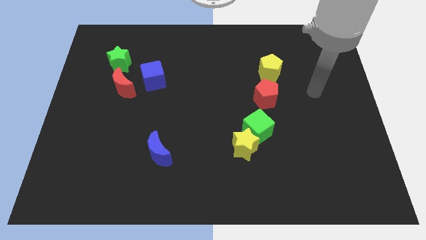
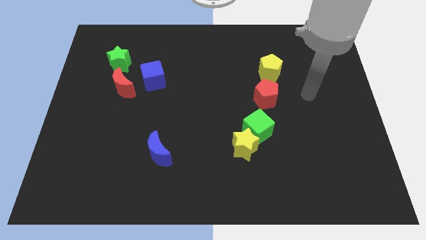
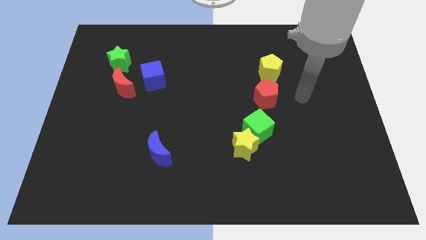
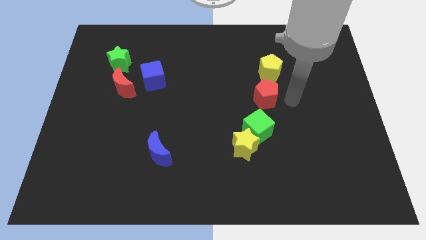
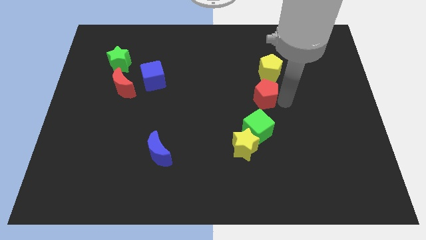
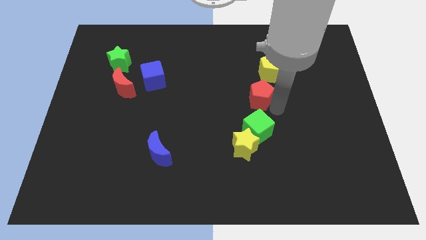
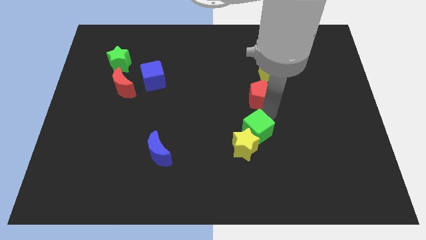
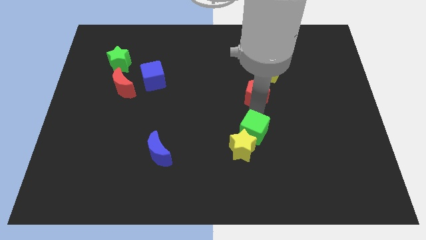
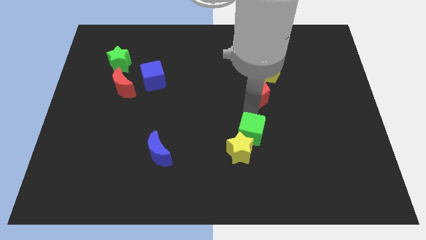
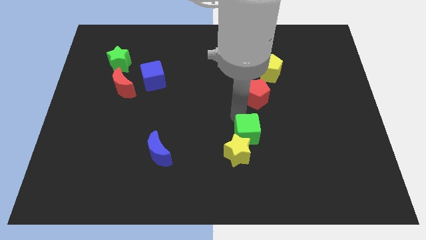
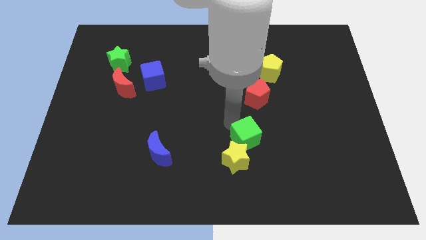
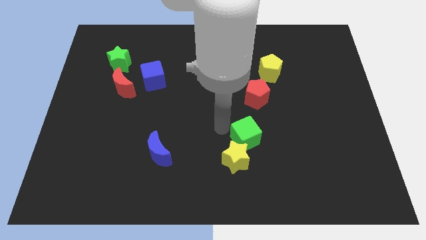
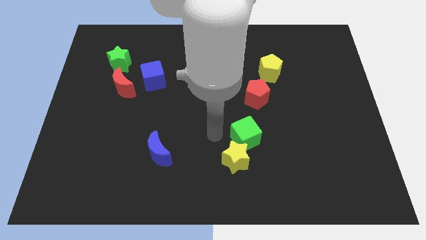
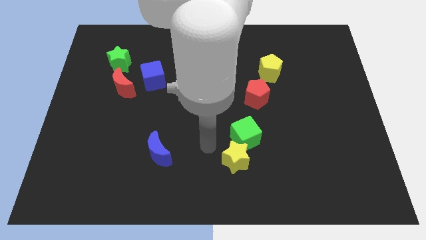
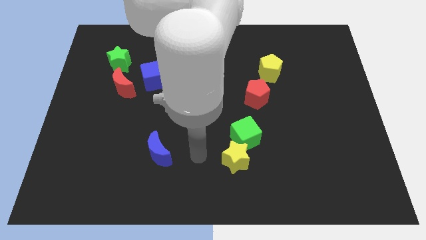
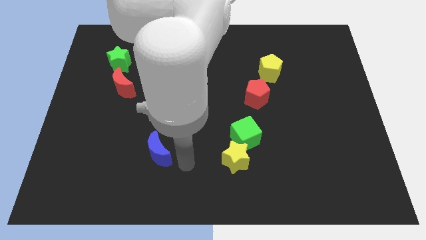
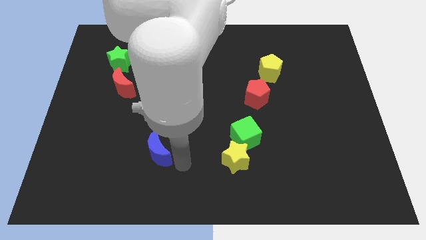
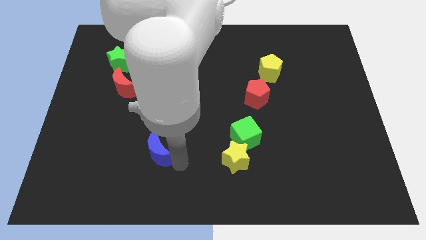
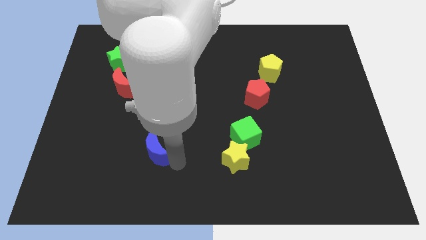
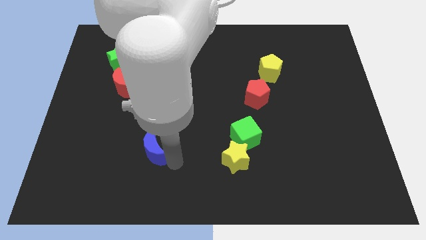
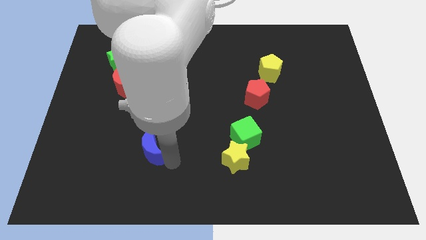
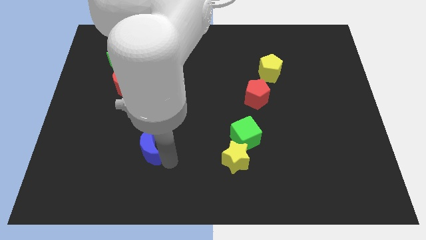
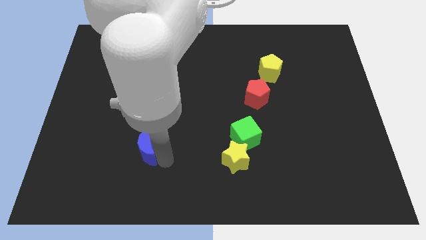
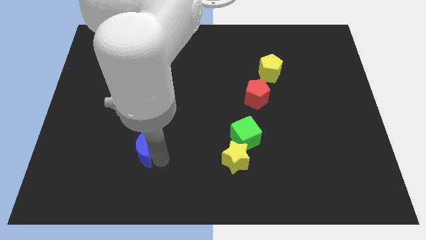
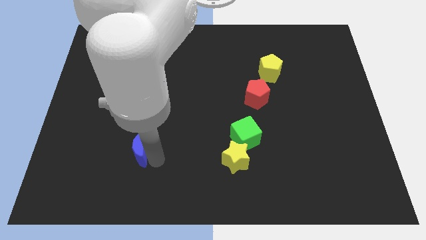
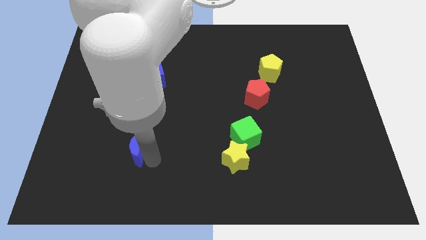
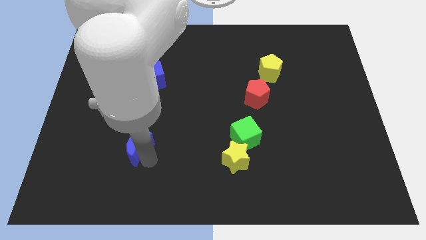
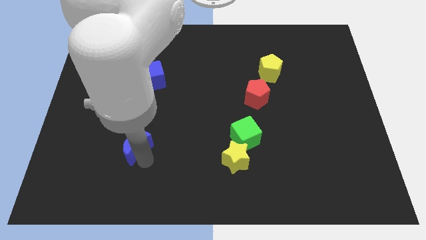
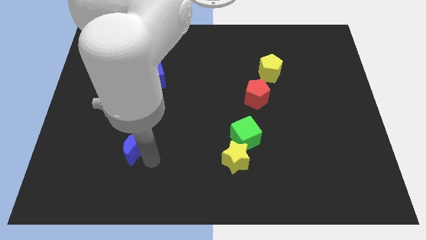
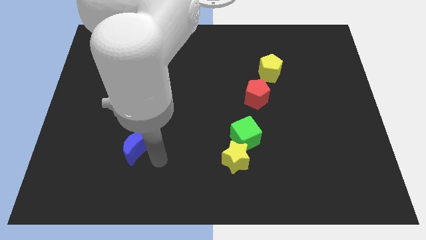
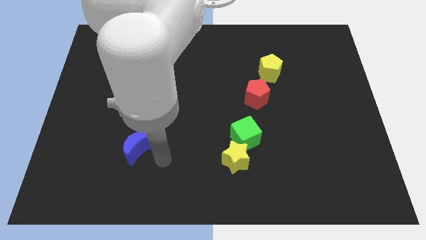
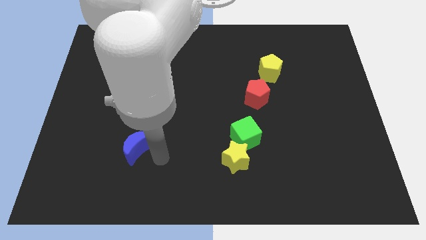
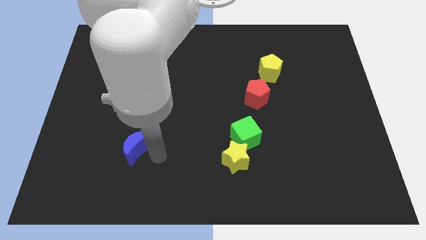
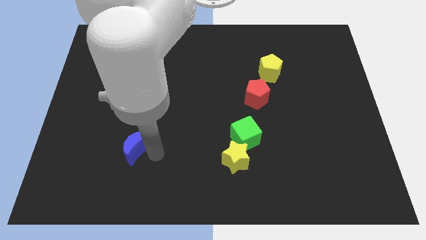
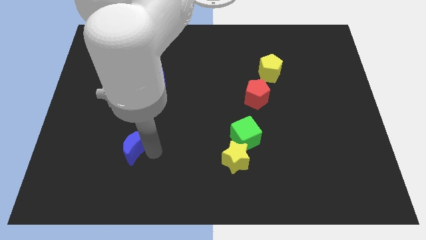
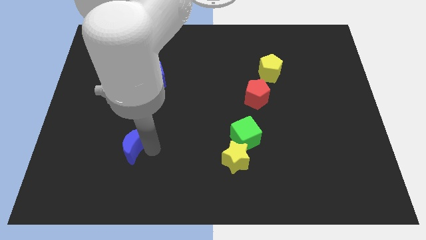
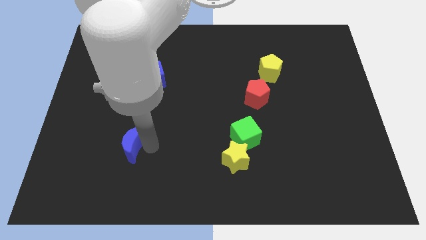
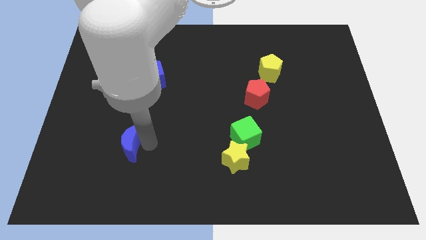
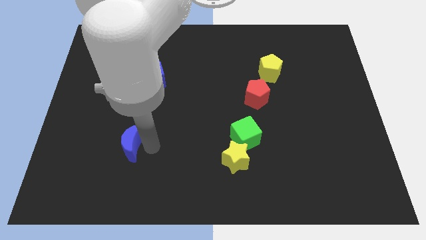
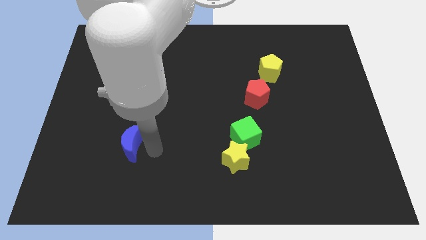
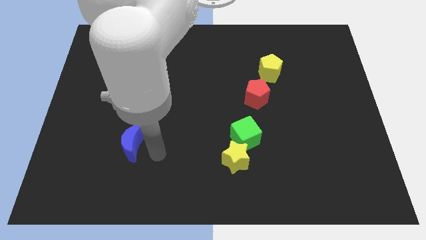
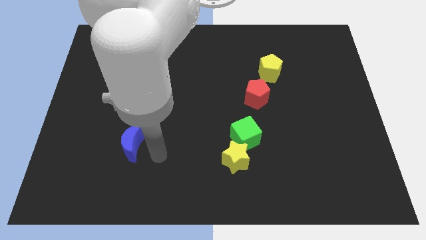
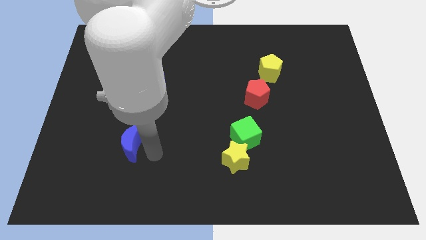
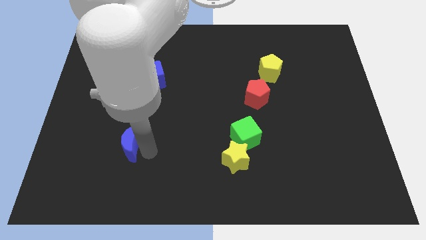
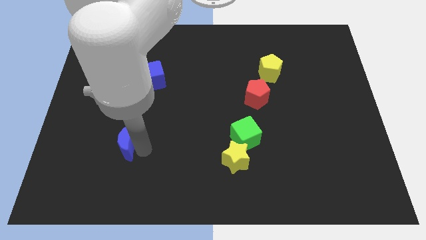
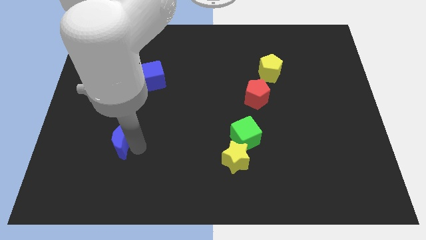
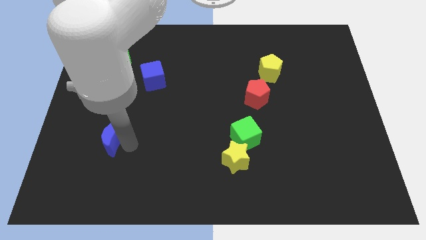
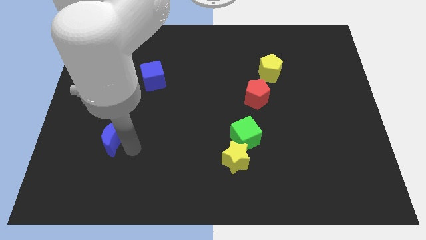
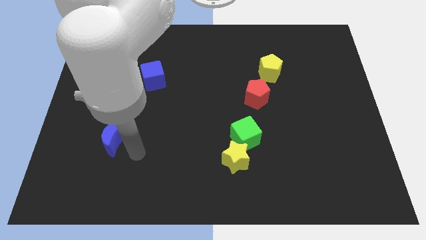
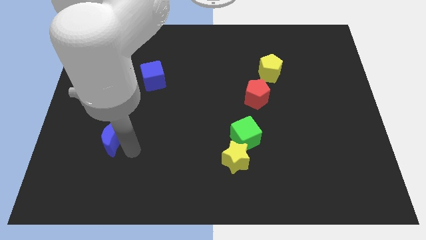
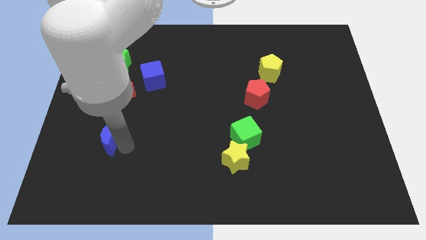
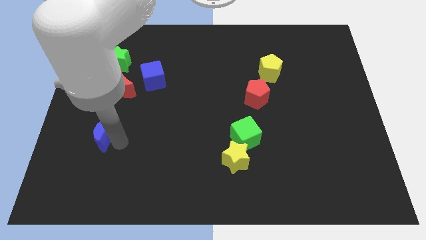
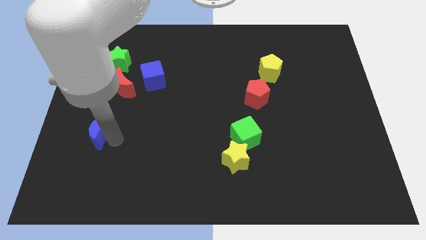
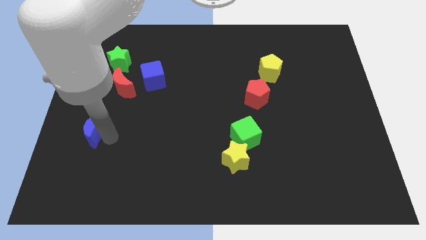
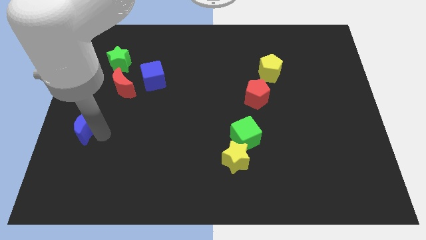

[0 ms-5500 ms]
put the blue moon to the left side of the board
